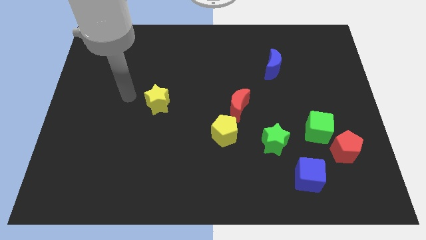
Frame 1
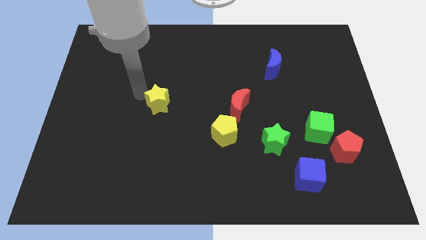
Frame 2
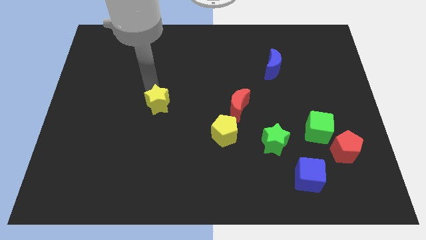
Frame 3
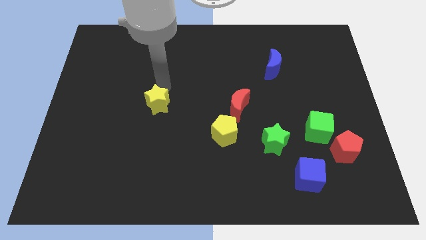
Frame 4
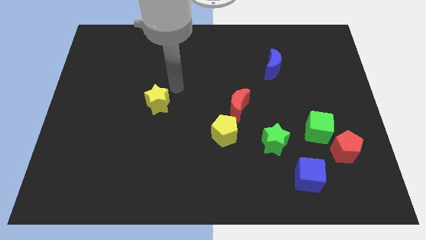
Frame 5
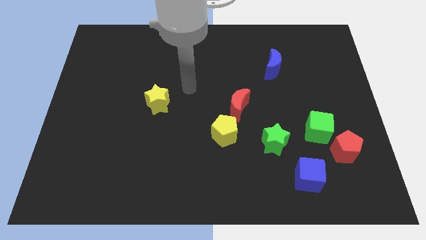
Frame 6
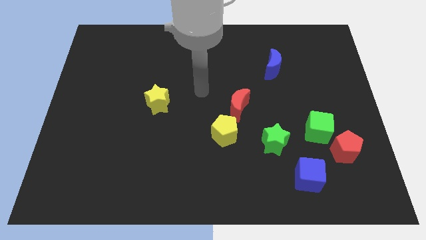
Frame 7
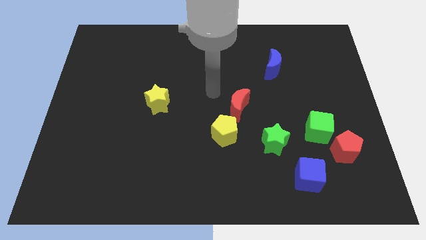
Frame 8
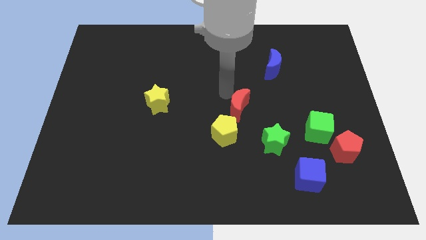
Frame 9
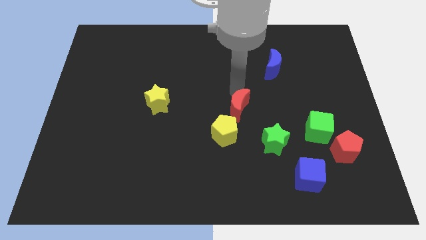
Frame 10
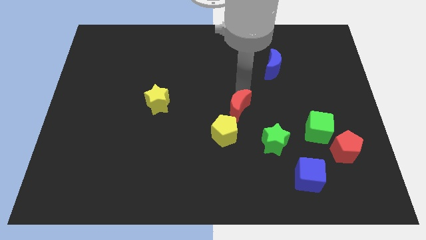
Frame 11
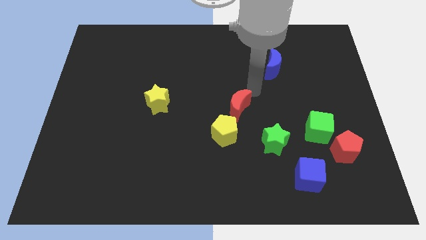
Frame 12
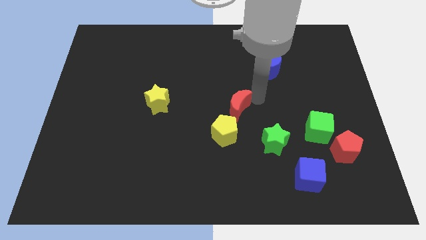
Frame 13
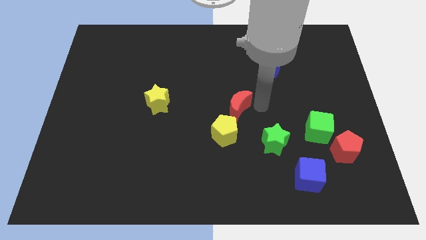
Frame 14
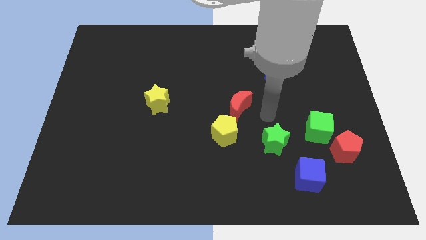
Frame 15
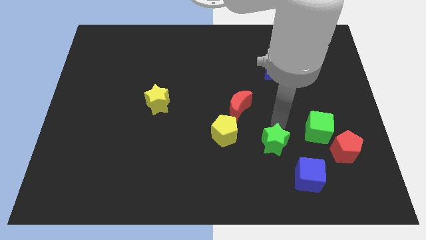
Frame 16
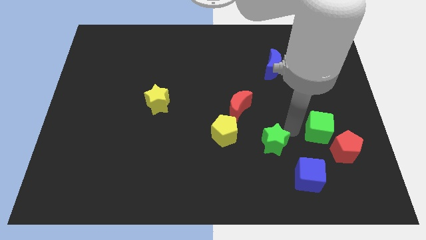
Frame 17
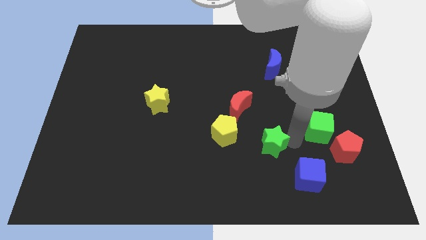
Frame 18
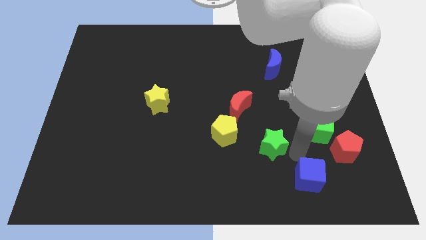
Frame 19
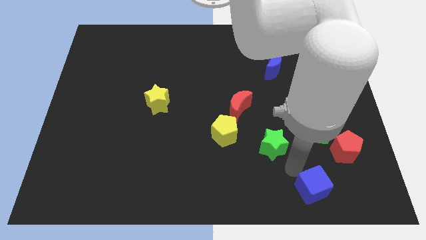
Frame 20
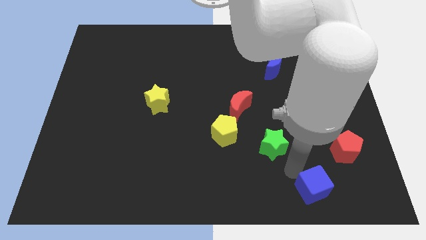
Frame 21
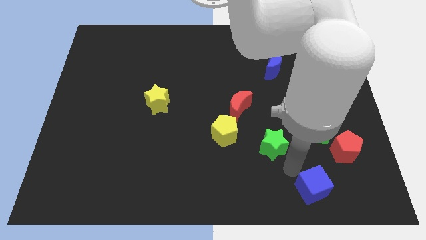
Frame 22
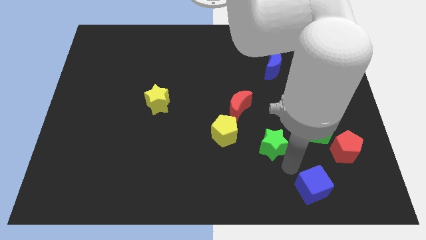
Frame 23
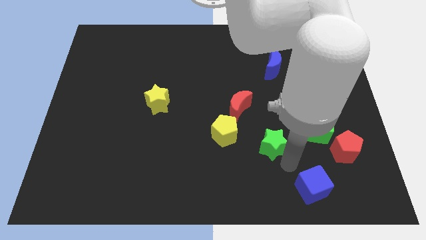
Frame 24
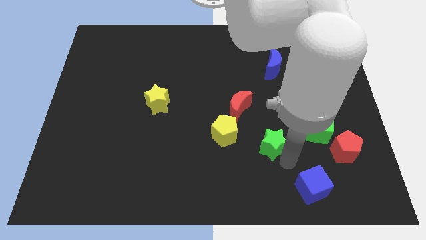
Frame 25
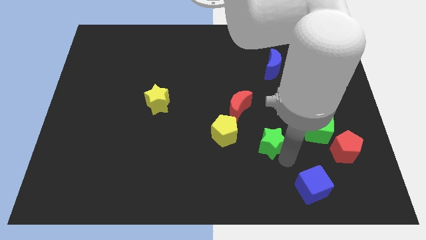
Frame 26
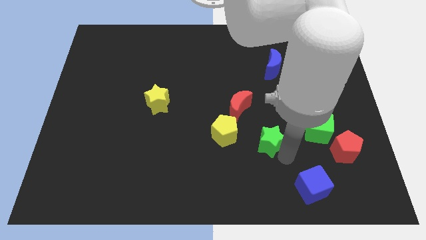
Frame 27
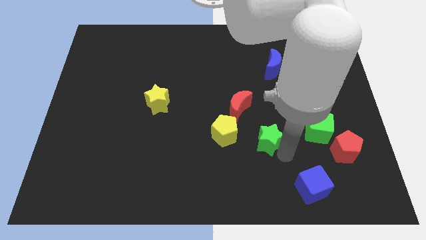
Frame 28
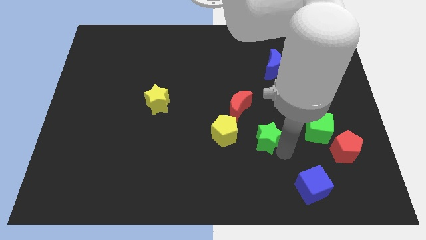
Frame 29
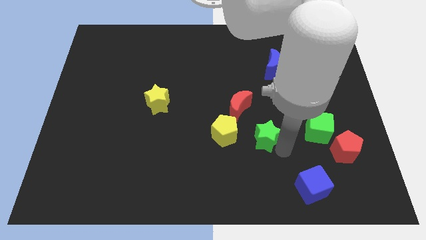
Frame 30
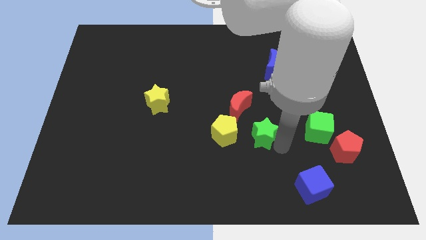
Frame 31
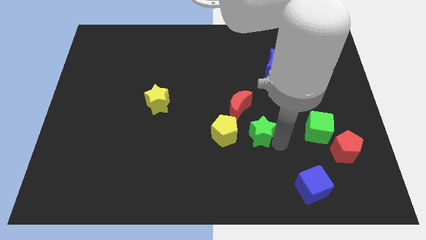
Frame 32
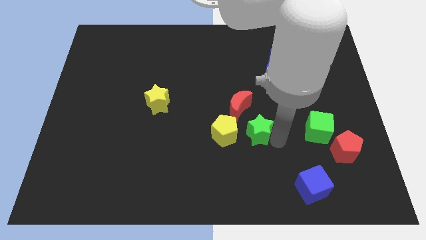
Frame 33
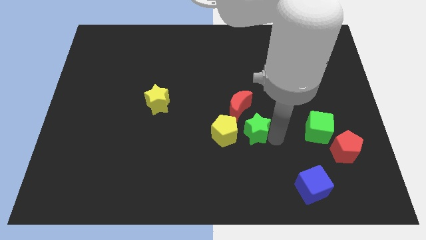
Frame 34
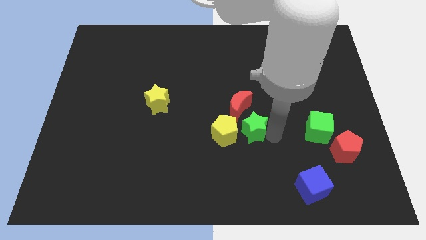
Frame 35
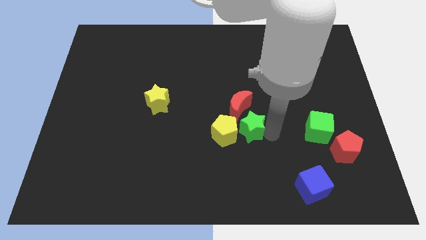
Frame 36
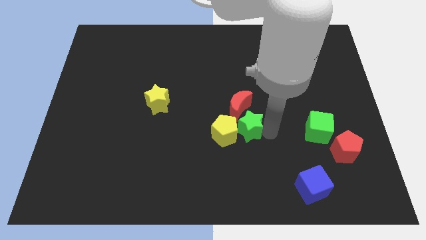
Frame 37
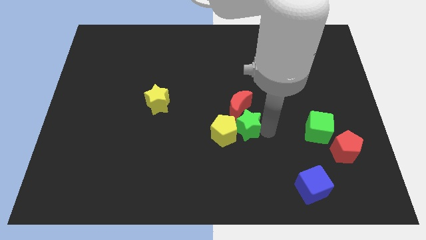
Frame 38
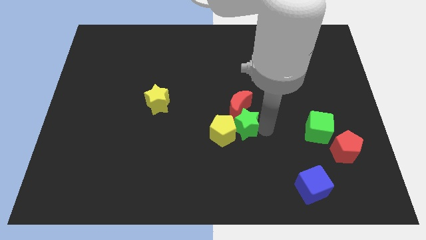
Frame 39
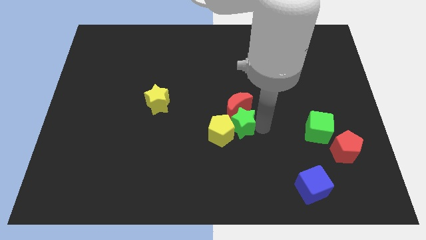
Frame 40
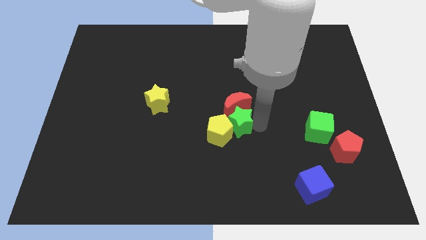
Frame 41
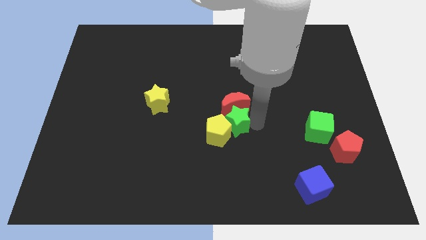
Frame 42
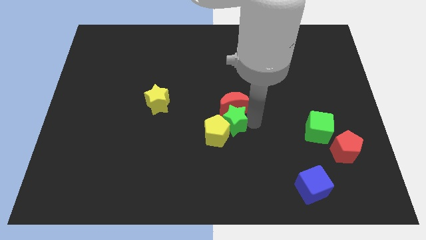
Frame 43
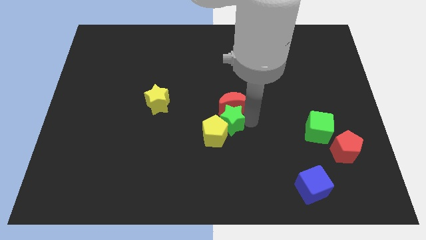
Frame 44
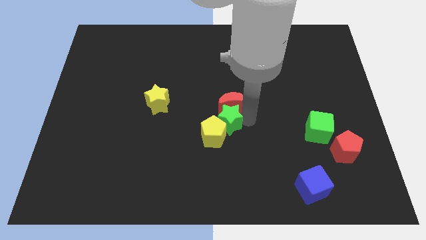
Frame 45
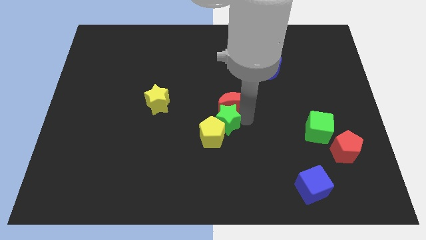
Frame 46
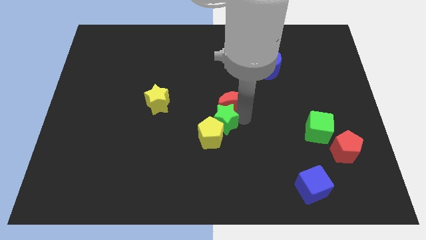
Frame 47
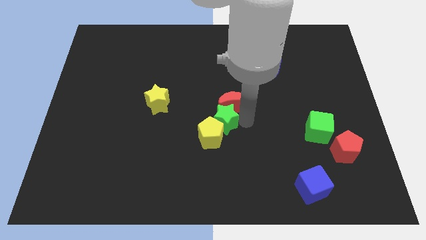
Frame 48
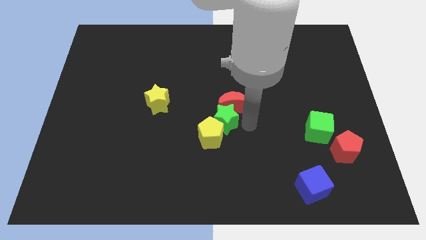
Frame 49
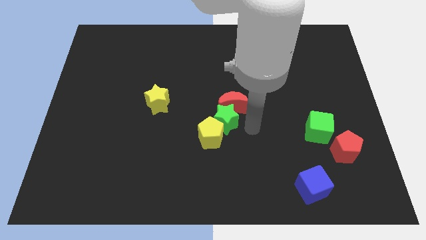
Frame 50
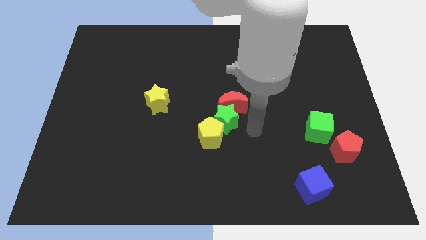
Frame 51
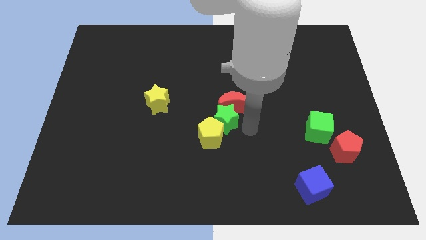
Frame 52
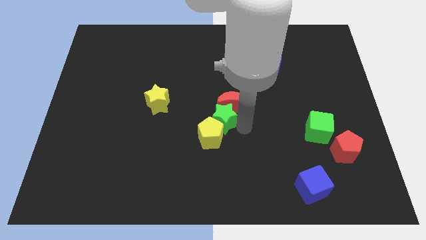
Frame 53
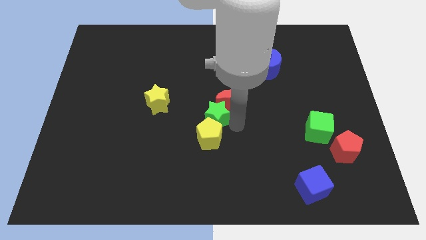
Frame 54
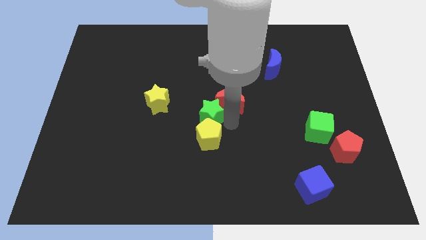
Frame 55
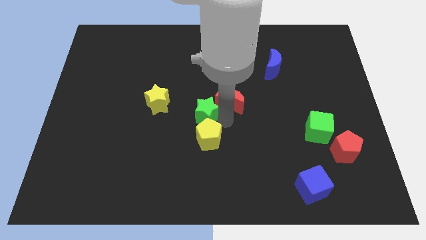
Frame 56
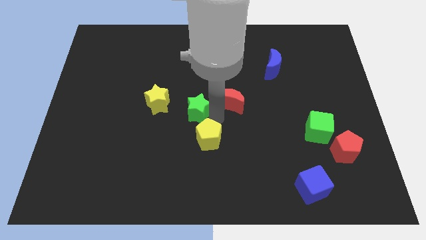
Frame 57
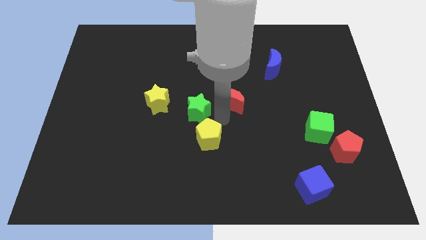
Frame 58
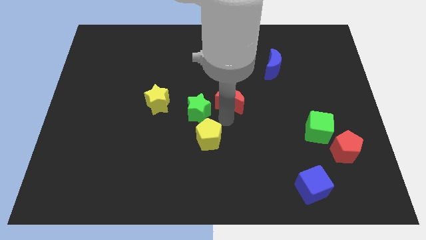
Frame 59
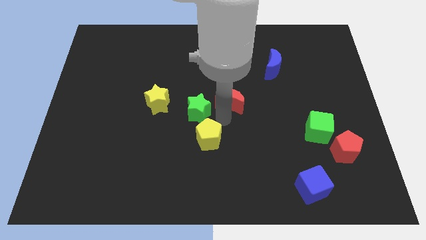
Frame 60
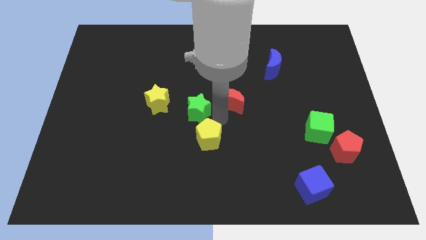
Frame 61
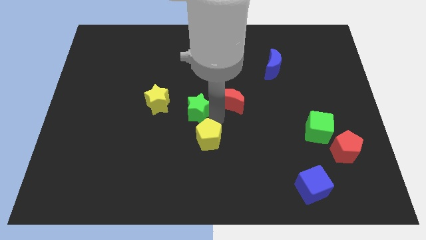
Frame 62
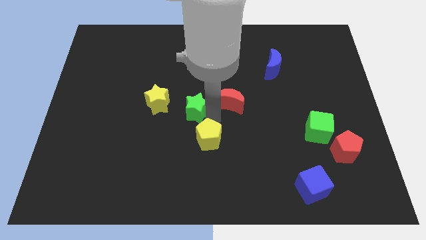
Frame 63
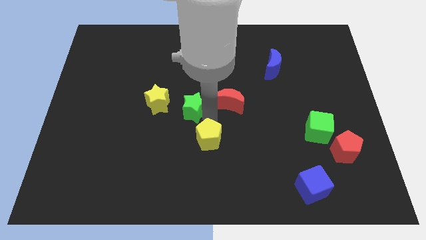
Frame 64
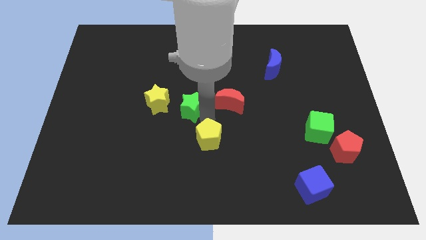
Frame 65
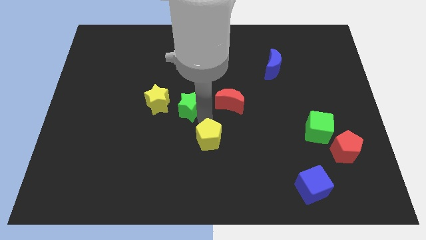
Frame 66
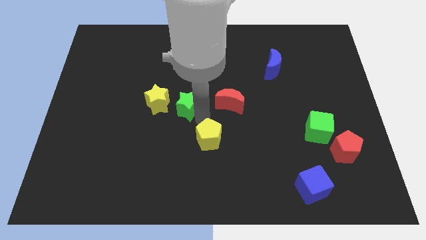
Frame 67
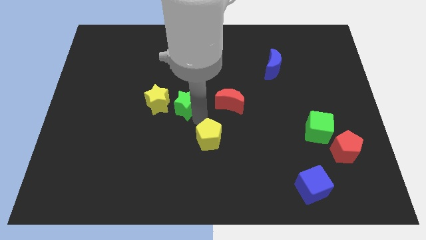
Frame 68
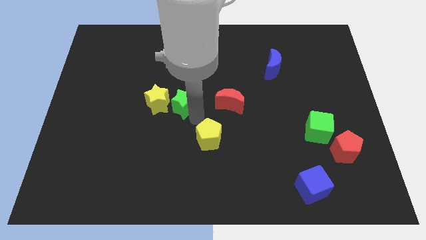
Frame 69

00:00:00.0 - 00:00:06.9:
put the green star next to the yellow star

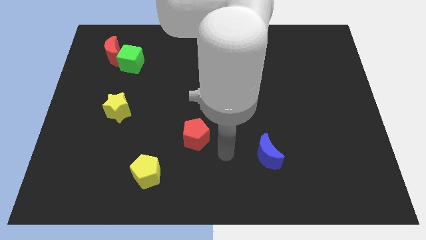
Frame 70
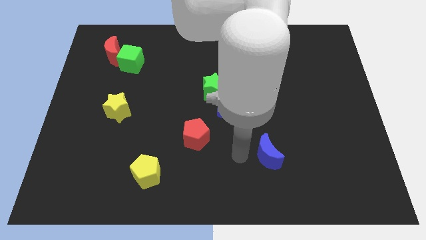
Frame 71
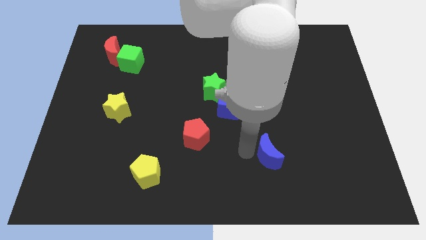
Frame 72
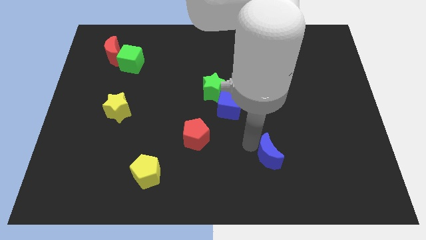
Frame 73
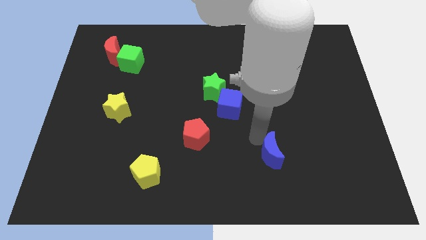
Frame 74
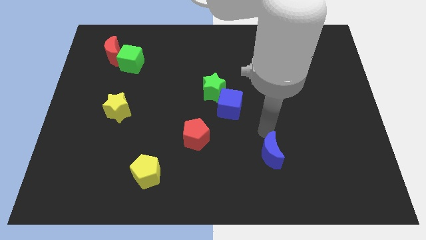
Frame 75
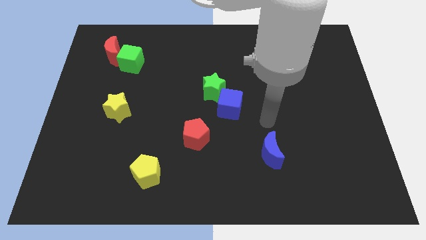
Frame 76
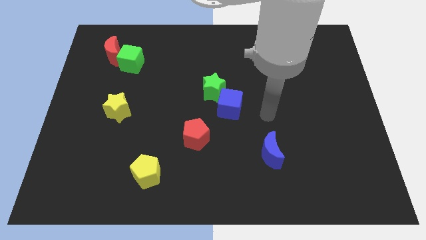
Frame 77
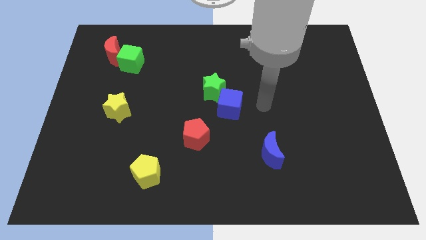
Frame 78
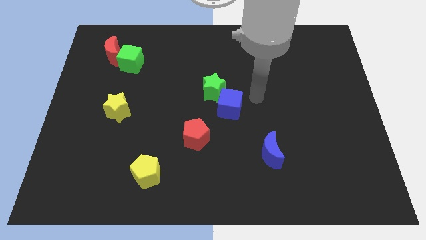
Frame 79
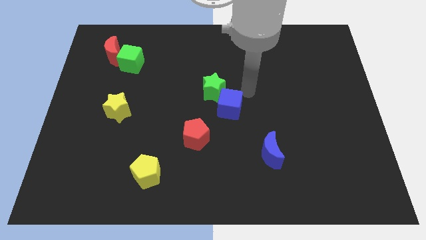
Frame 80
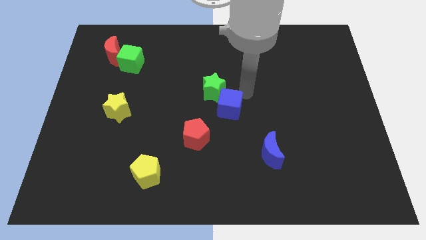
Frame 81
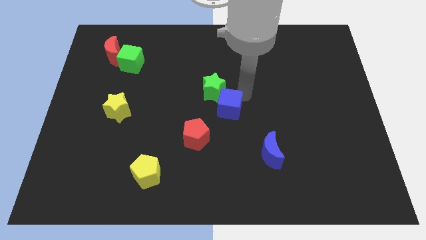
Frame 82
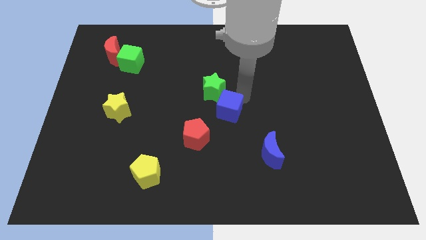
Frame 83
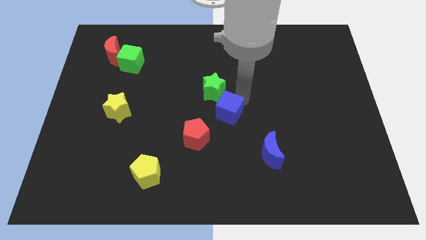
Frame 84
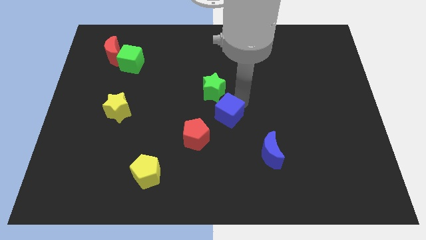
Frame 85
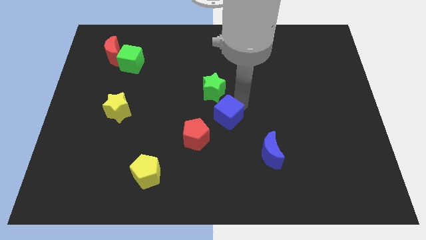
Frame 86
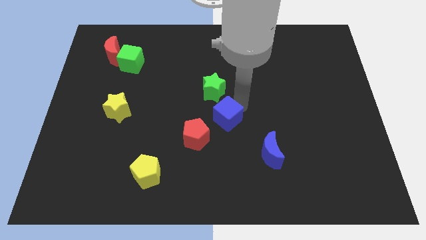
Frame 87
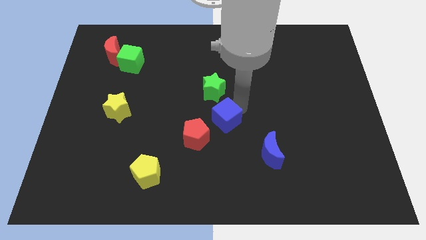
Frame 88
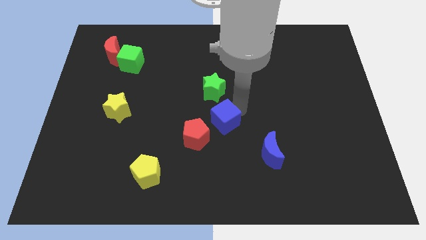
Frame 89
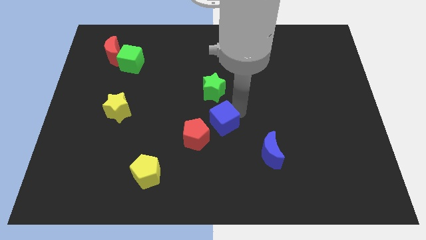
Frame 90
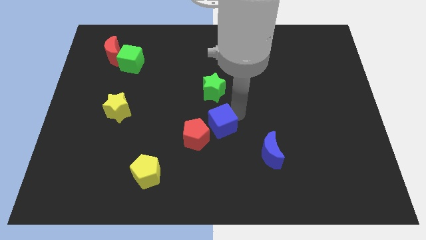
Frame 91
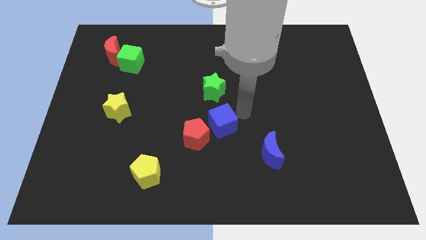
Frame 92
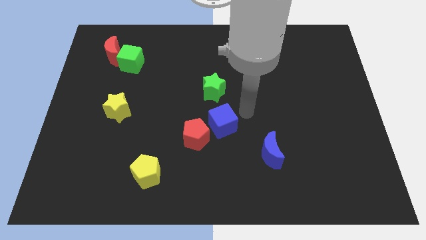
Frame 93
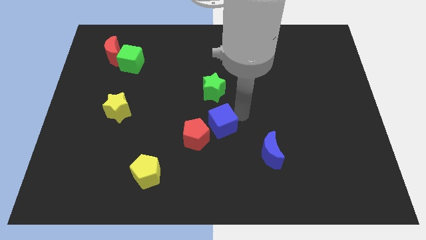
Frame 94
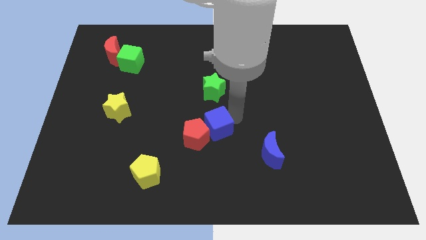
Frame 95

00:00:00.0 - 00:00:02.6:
slide the blue cube towards the red pentagon
